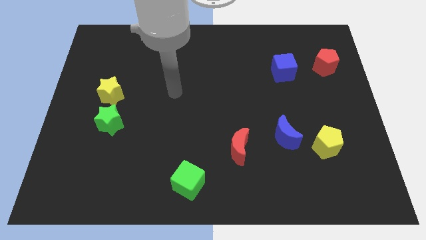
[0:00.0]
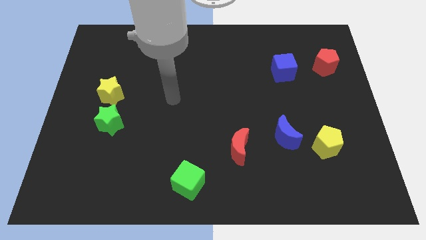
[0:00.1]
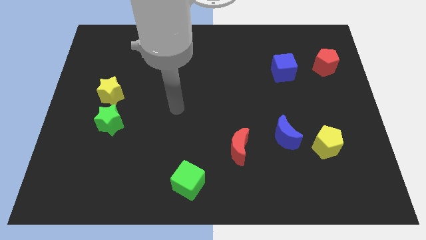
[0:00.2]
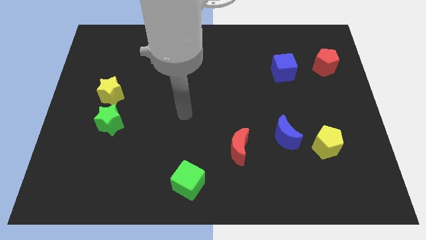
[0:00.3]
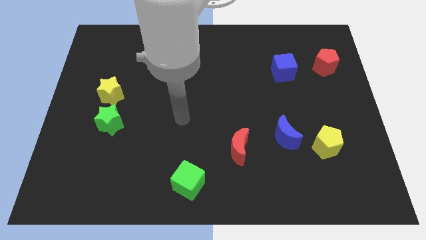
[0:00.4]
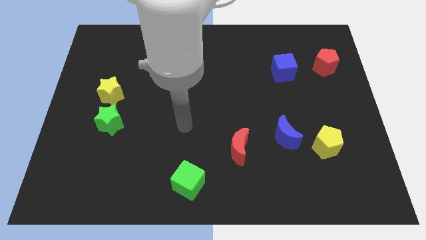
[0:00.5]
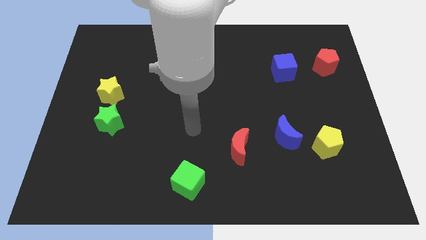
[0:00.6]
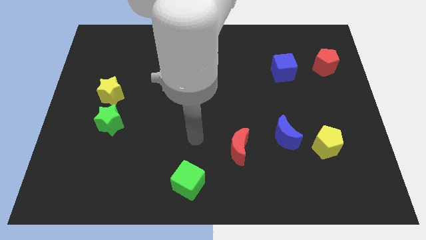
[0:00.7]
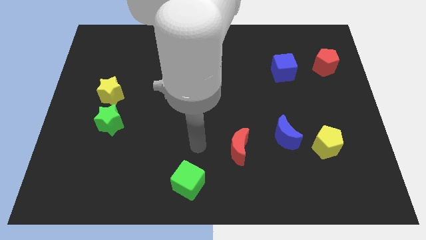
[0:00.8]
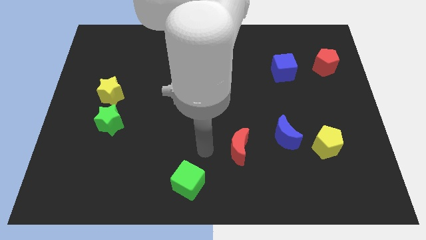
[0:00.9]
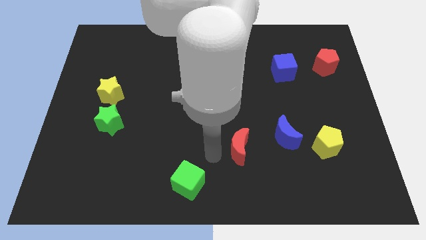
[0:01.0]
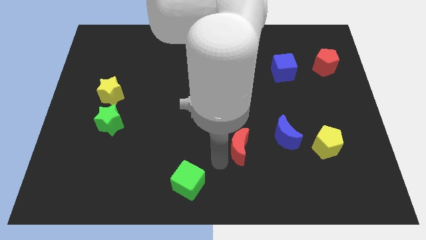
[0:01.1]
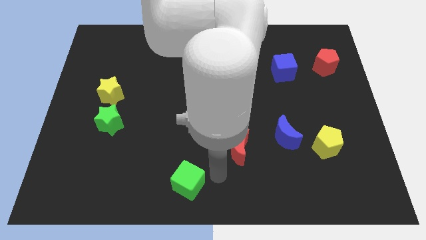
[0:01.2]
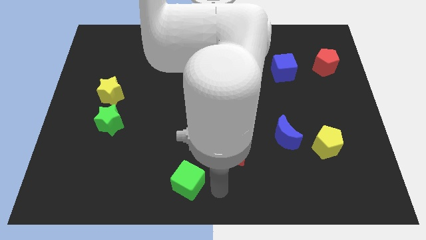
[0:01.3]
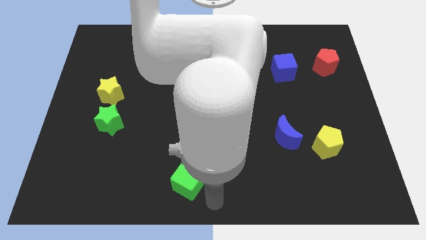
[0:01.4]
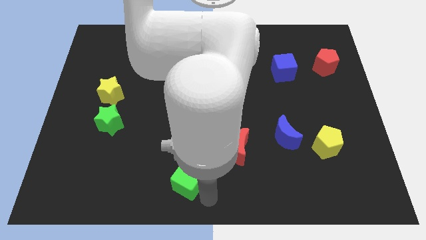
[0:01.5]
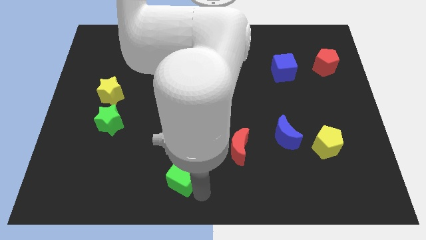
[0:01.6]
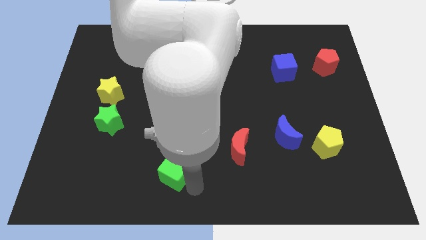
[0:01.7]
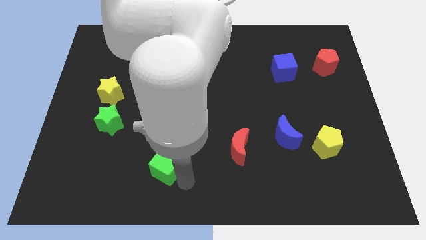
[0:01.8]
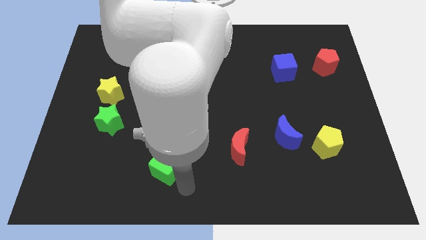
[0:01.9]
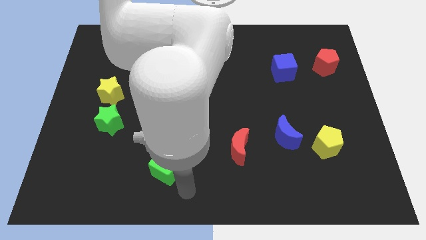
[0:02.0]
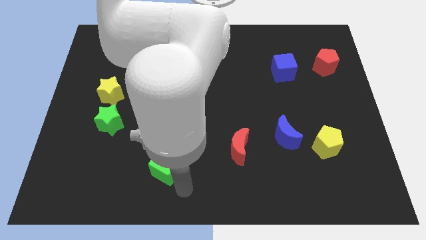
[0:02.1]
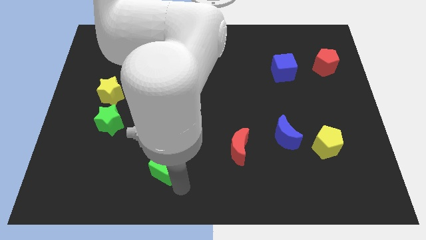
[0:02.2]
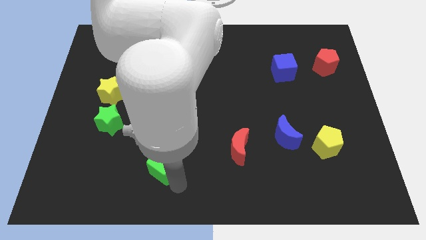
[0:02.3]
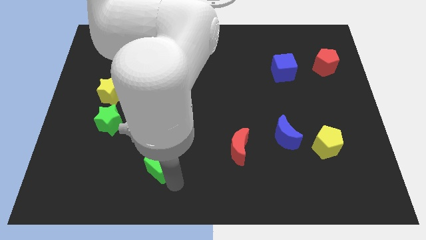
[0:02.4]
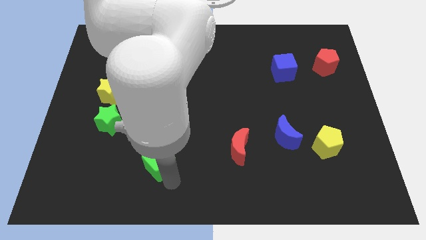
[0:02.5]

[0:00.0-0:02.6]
slightly slide the green cube diagonally upwards and to the left

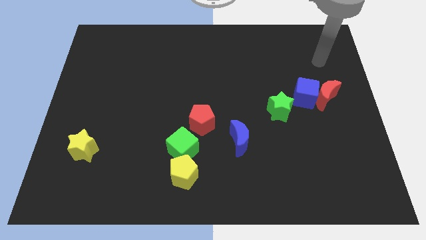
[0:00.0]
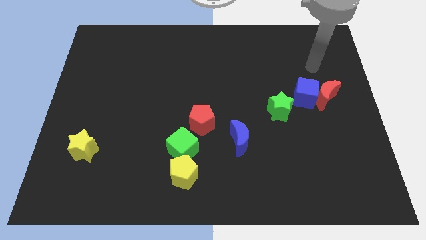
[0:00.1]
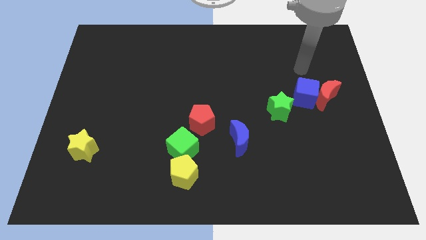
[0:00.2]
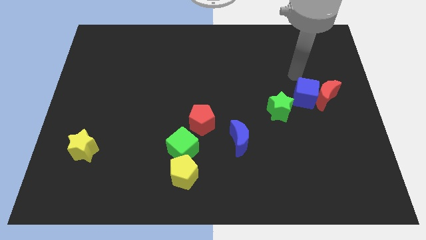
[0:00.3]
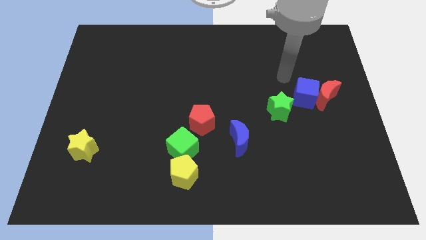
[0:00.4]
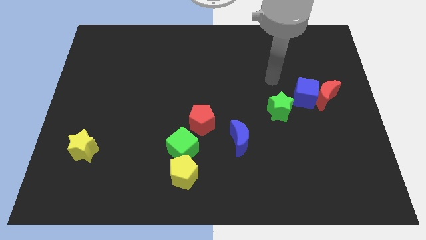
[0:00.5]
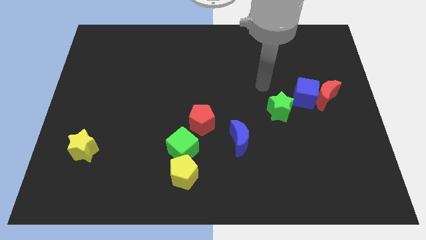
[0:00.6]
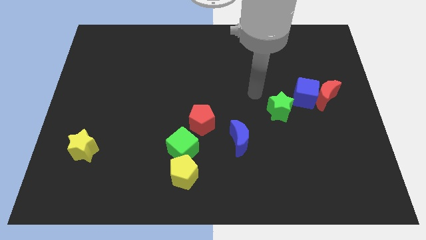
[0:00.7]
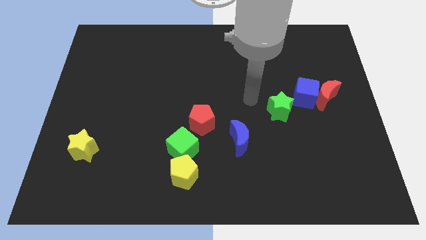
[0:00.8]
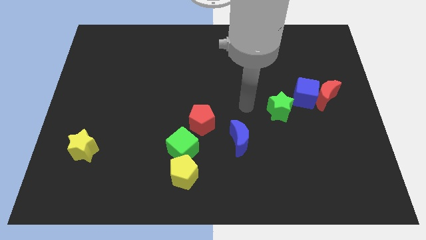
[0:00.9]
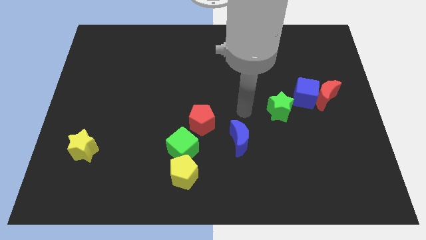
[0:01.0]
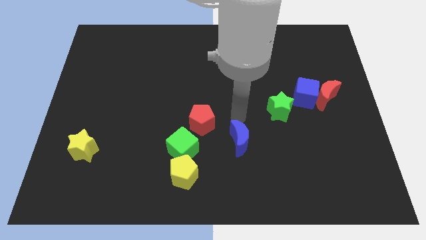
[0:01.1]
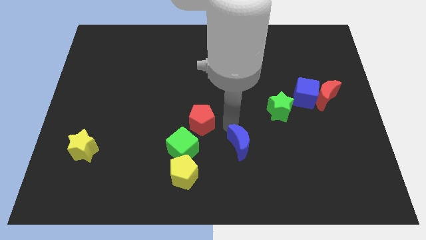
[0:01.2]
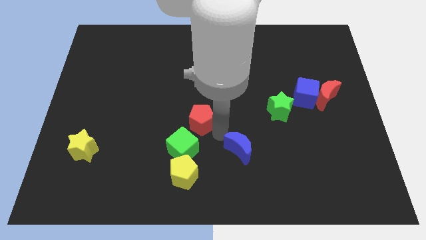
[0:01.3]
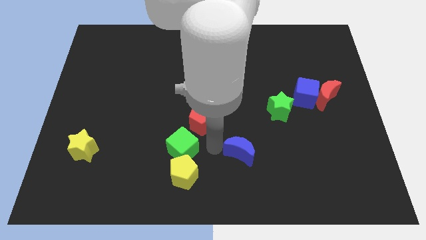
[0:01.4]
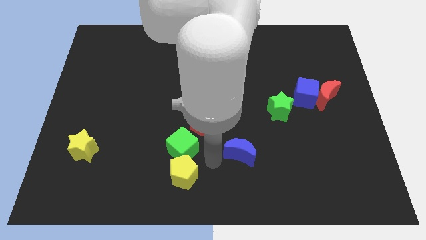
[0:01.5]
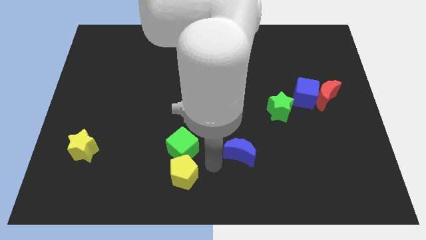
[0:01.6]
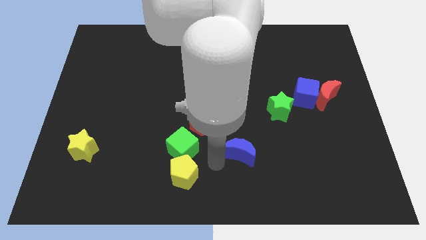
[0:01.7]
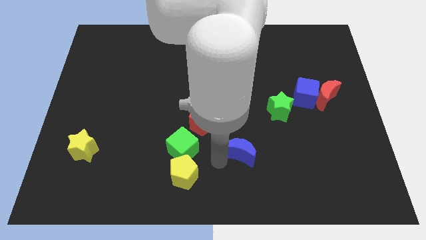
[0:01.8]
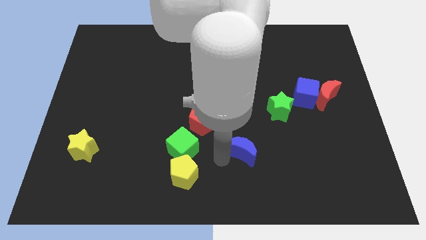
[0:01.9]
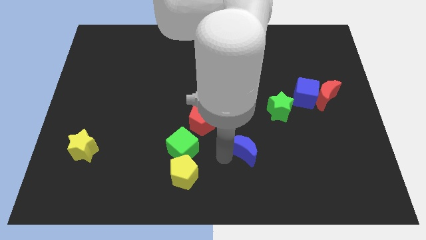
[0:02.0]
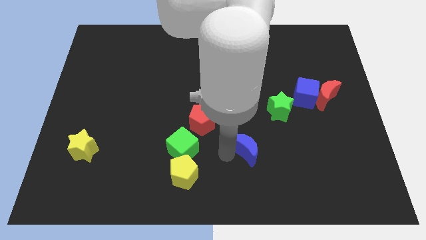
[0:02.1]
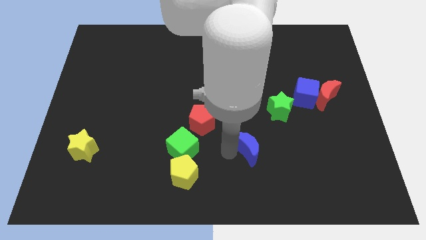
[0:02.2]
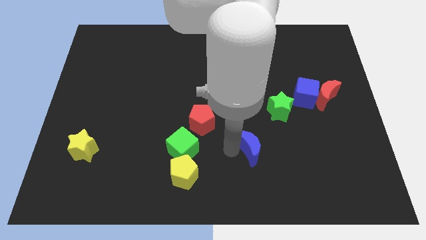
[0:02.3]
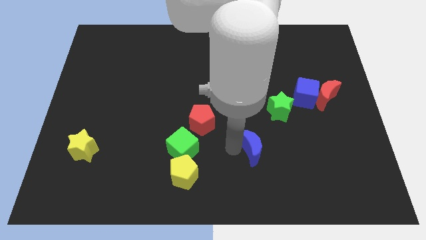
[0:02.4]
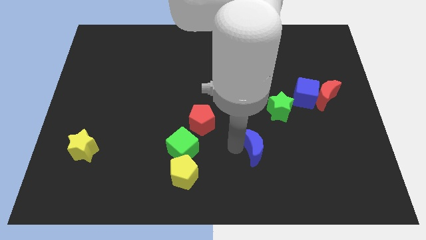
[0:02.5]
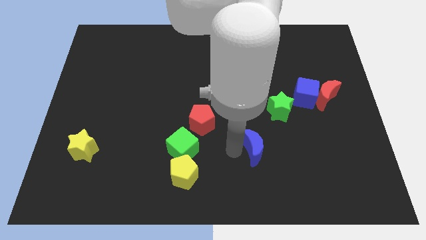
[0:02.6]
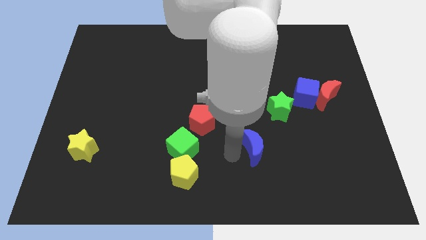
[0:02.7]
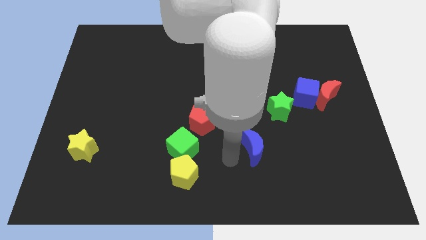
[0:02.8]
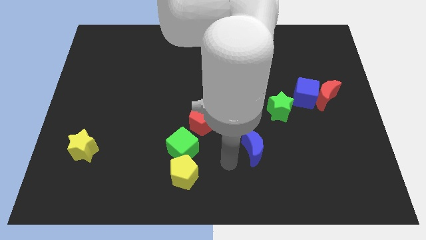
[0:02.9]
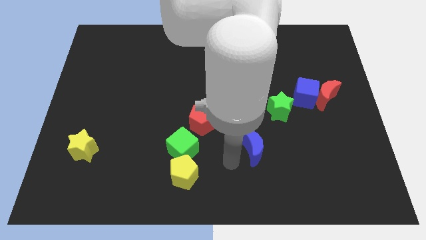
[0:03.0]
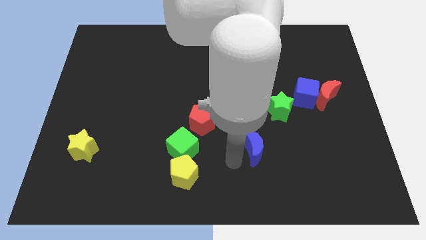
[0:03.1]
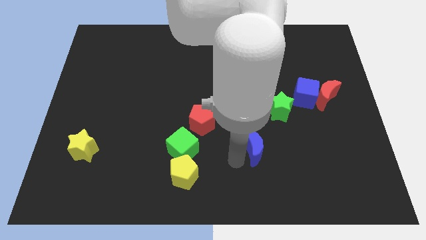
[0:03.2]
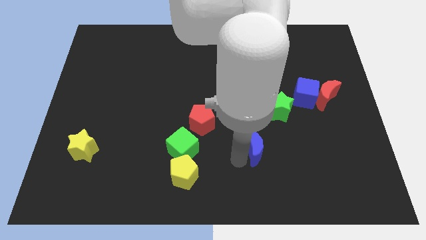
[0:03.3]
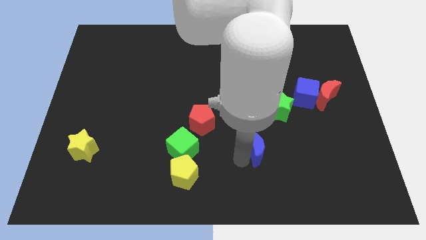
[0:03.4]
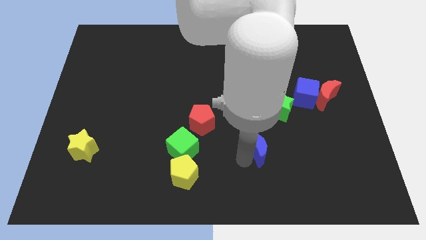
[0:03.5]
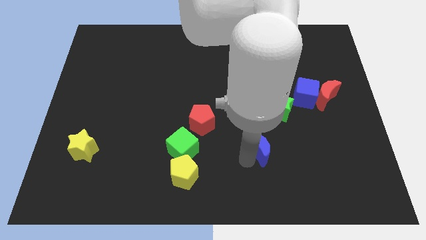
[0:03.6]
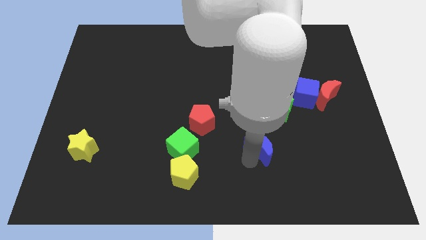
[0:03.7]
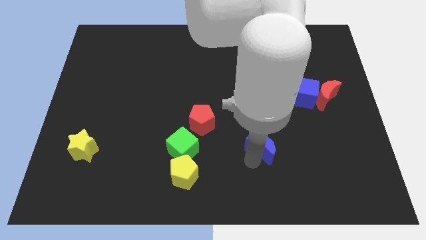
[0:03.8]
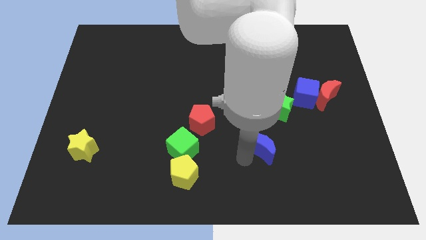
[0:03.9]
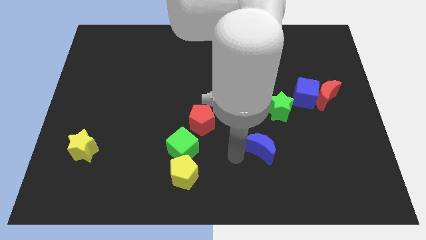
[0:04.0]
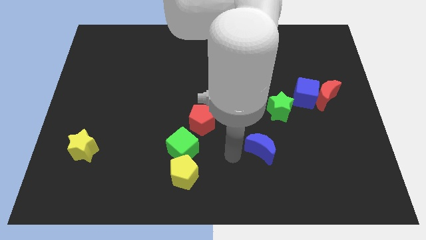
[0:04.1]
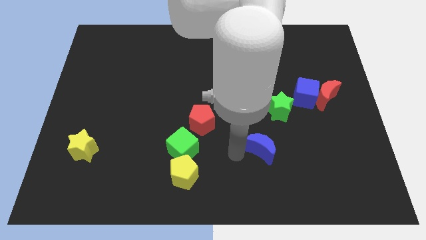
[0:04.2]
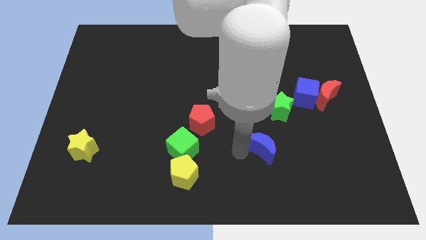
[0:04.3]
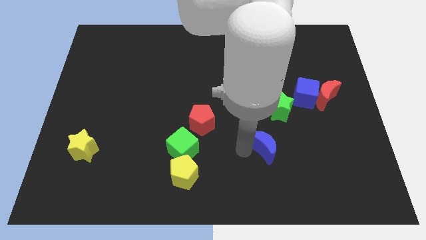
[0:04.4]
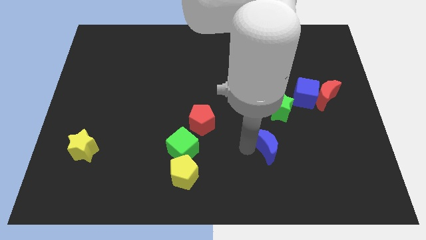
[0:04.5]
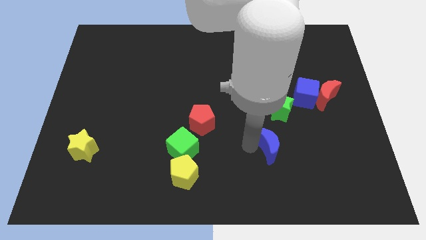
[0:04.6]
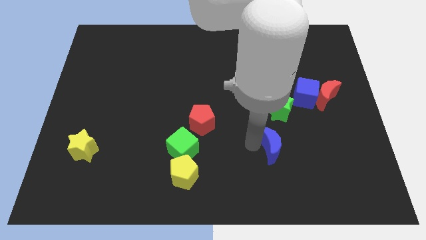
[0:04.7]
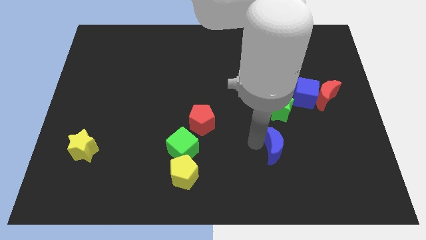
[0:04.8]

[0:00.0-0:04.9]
move the blue moon right somewhat

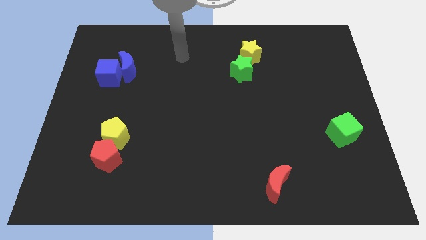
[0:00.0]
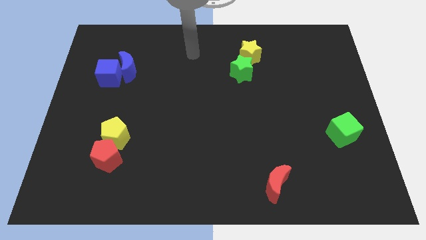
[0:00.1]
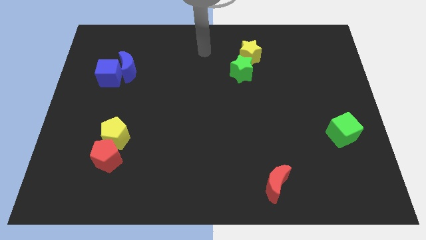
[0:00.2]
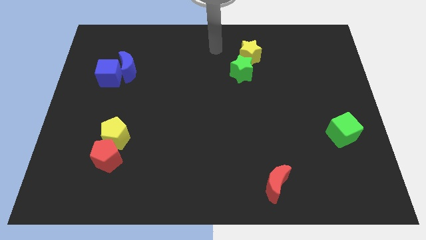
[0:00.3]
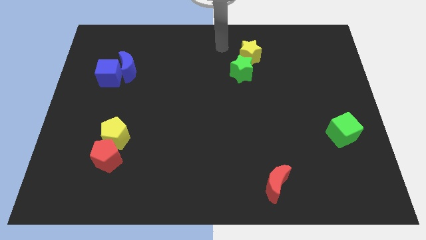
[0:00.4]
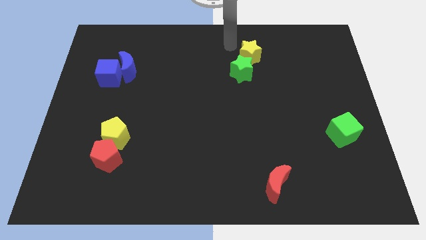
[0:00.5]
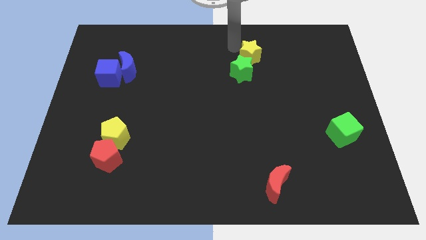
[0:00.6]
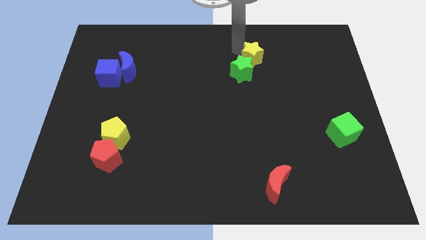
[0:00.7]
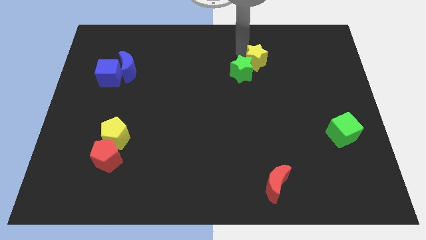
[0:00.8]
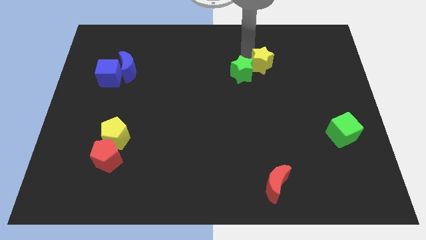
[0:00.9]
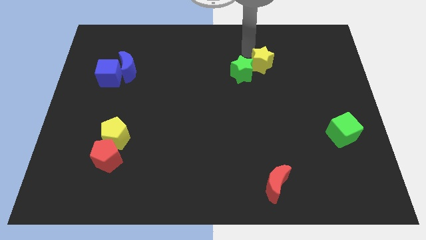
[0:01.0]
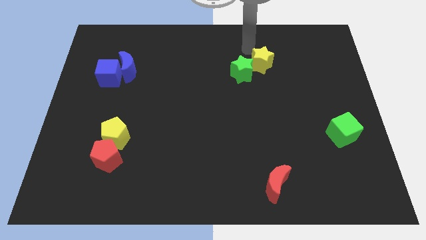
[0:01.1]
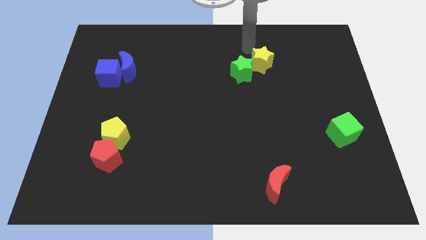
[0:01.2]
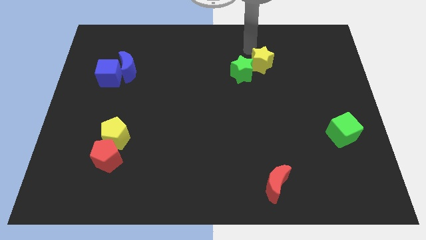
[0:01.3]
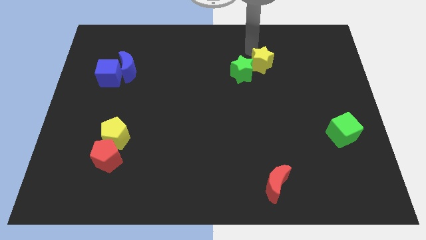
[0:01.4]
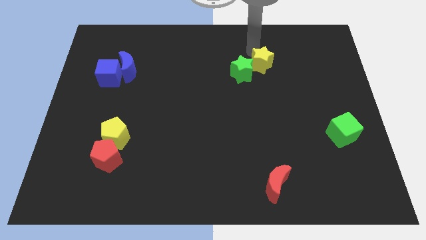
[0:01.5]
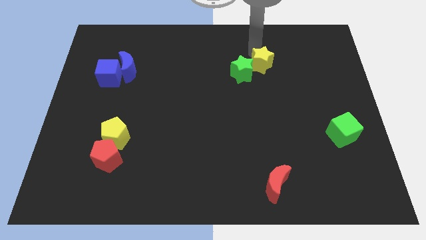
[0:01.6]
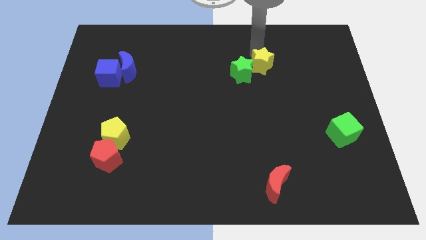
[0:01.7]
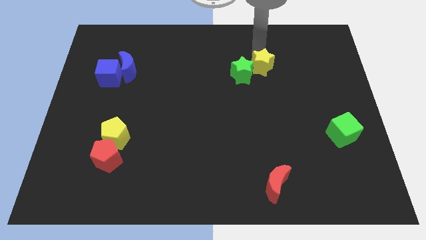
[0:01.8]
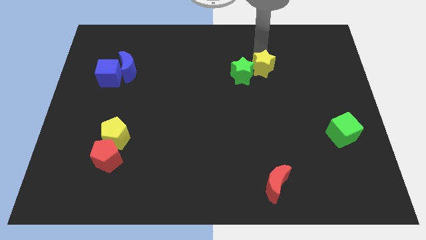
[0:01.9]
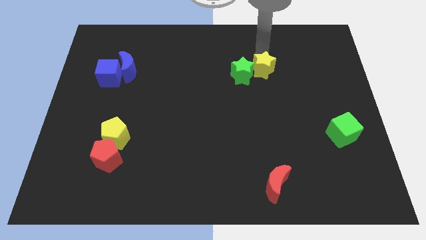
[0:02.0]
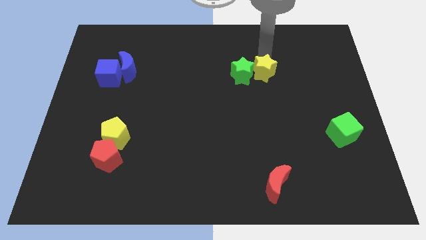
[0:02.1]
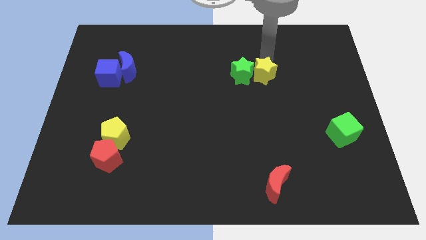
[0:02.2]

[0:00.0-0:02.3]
move the yellow star a little downwards and right
